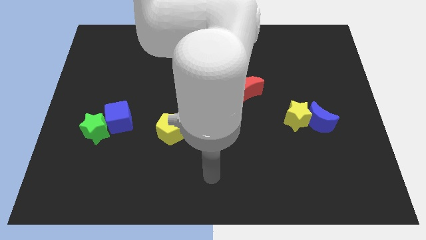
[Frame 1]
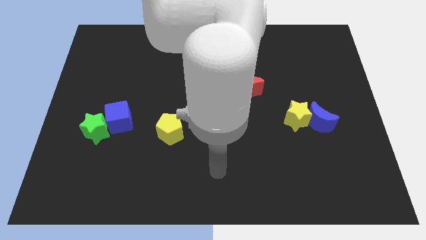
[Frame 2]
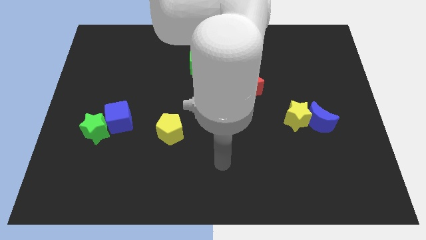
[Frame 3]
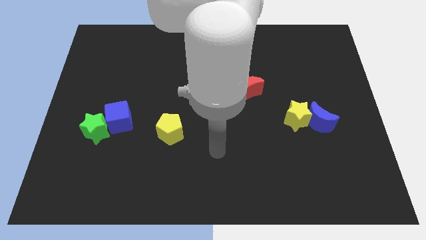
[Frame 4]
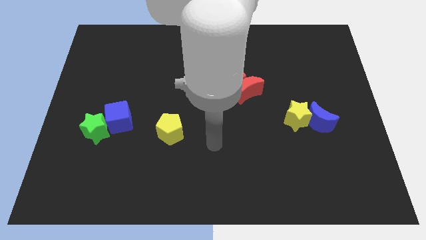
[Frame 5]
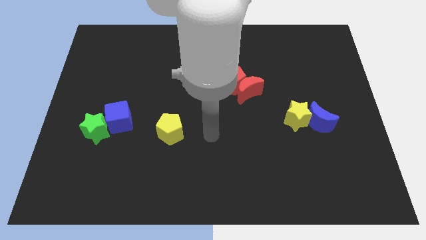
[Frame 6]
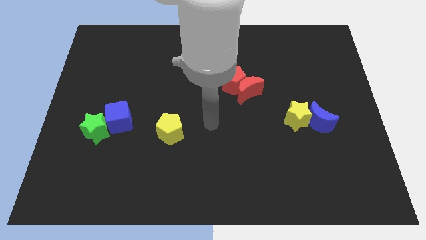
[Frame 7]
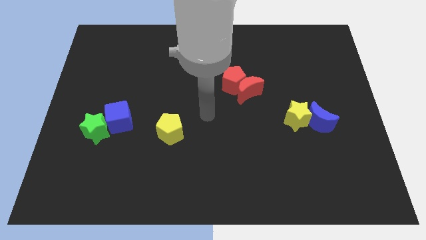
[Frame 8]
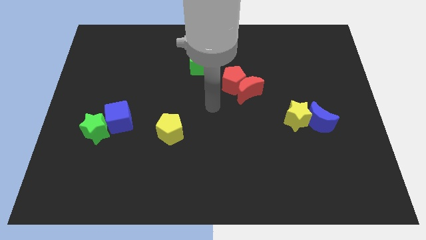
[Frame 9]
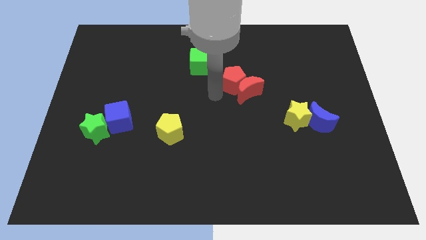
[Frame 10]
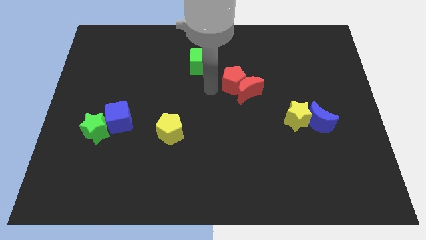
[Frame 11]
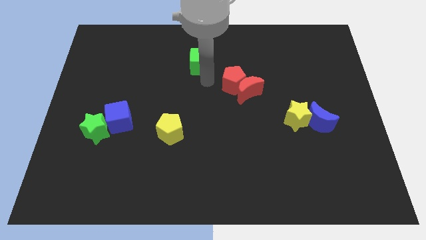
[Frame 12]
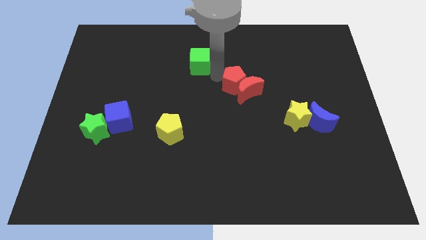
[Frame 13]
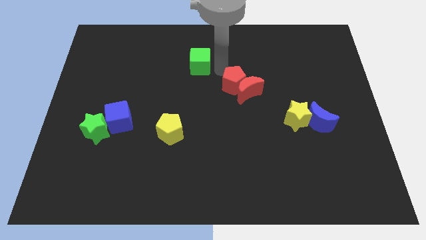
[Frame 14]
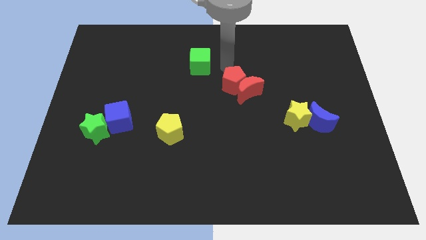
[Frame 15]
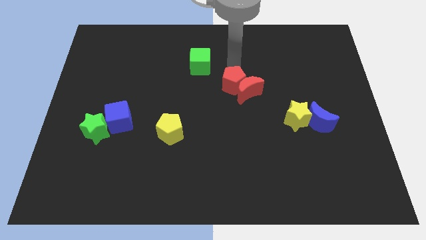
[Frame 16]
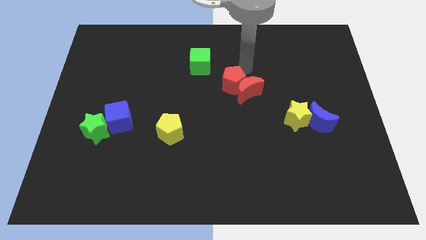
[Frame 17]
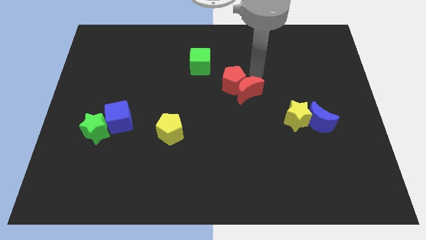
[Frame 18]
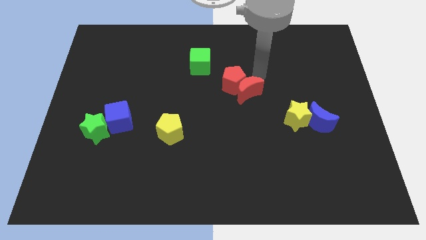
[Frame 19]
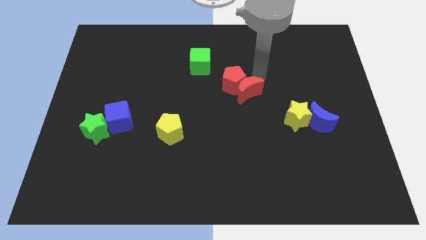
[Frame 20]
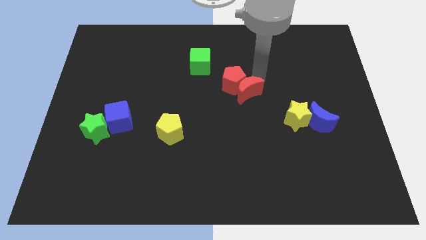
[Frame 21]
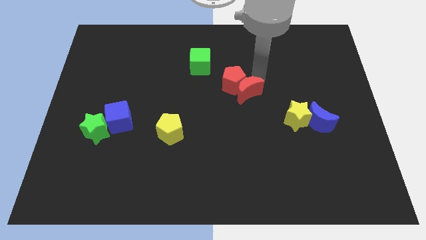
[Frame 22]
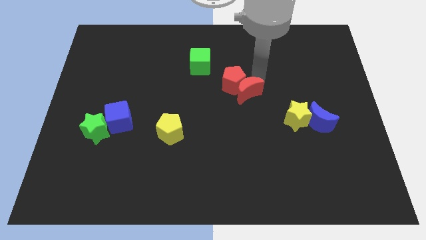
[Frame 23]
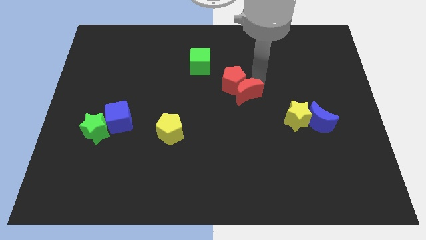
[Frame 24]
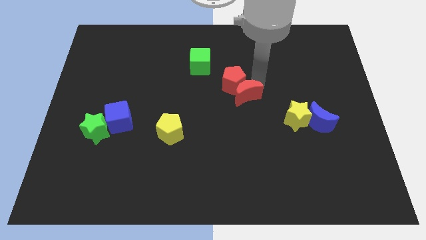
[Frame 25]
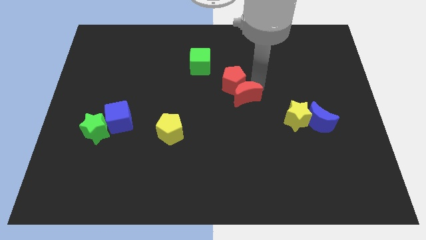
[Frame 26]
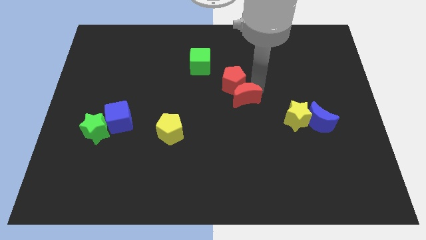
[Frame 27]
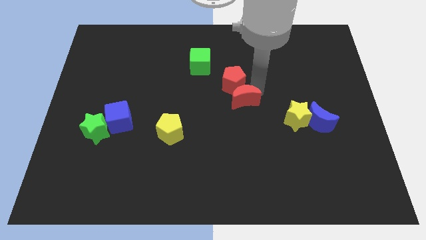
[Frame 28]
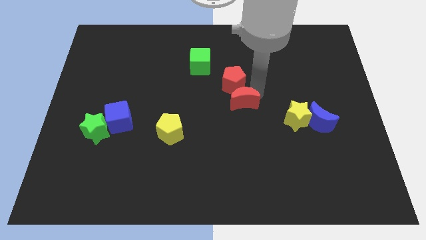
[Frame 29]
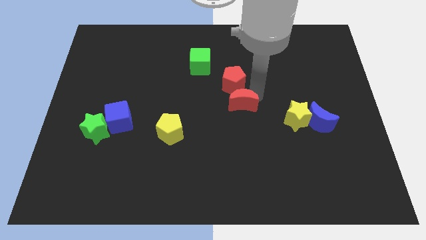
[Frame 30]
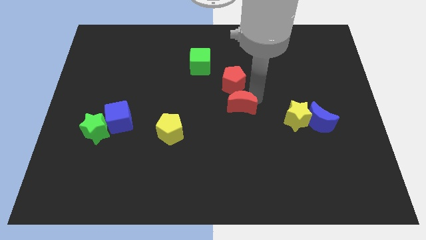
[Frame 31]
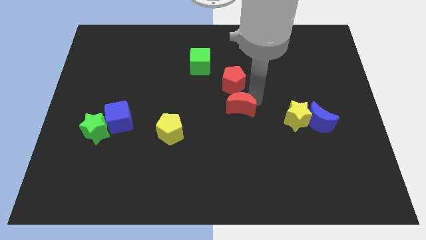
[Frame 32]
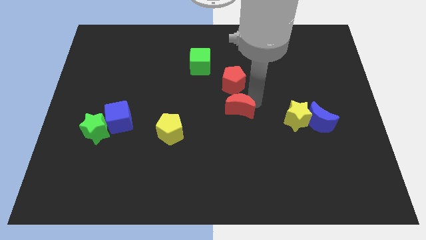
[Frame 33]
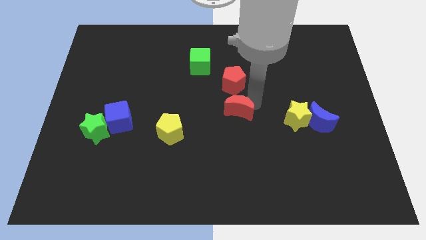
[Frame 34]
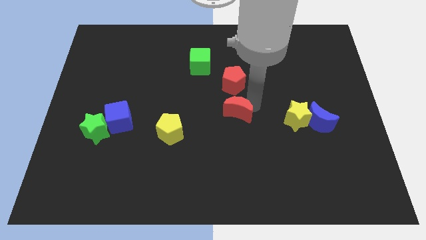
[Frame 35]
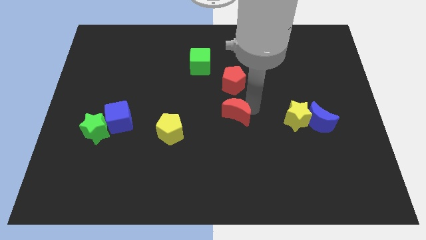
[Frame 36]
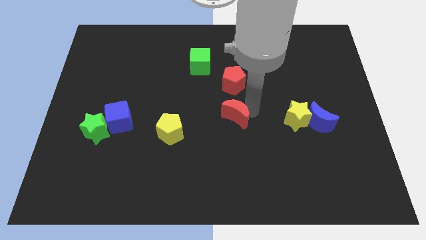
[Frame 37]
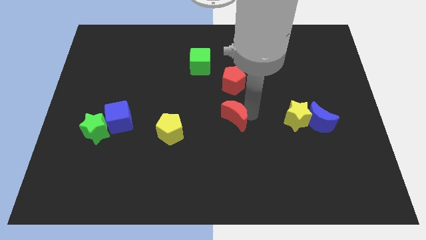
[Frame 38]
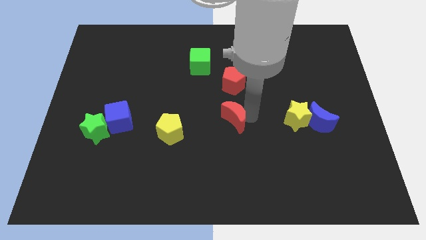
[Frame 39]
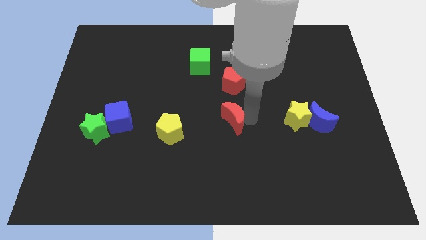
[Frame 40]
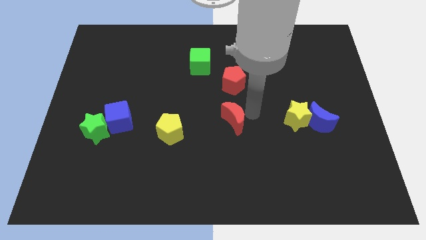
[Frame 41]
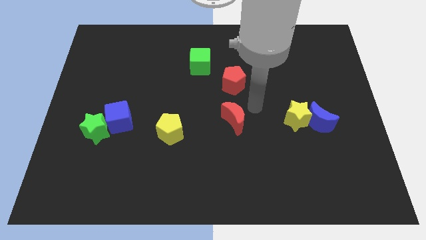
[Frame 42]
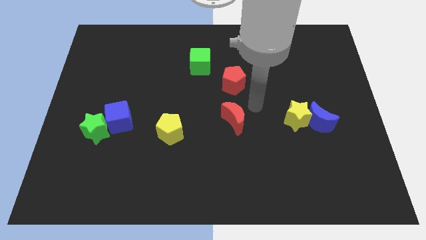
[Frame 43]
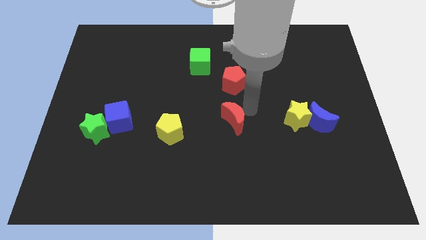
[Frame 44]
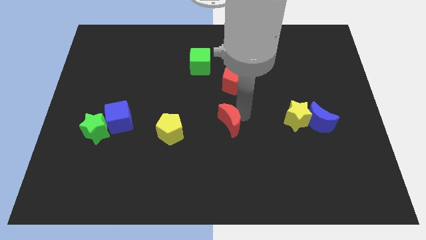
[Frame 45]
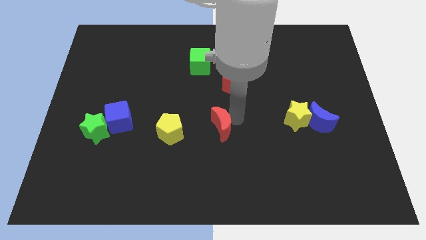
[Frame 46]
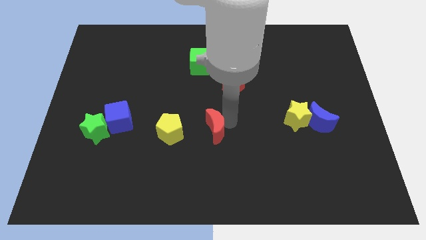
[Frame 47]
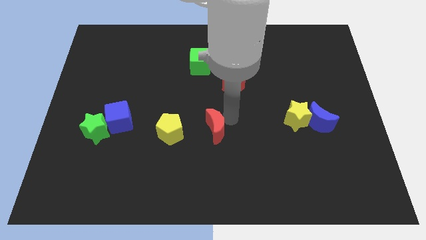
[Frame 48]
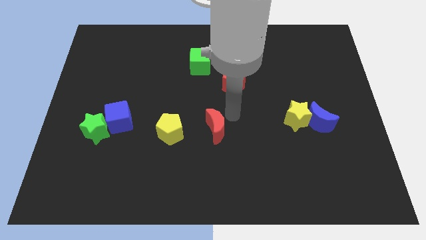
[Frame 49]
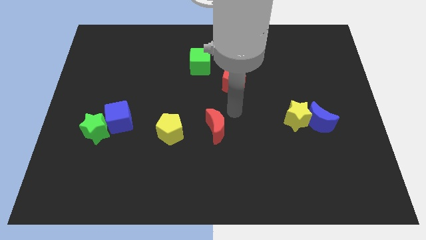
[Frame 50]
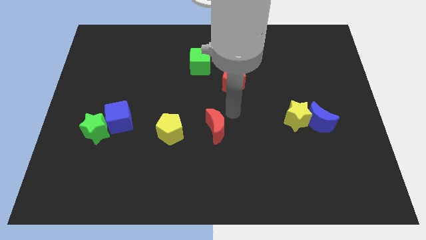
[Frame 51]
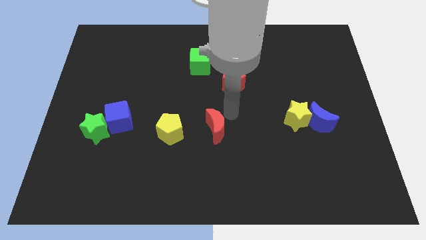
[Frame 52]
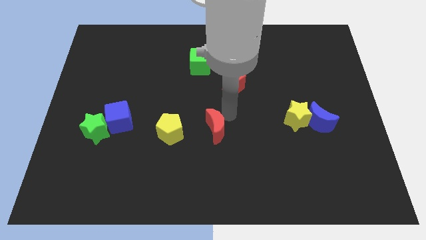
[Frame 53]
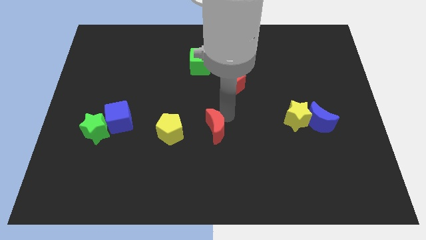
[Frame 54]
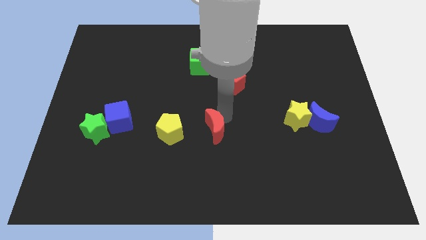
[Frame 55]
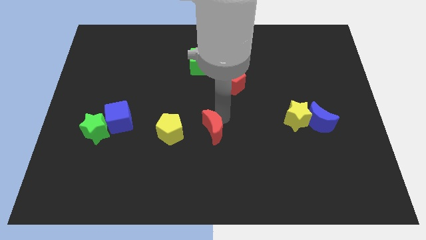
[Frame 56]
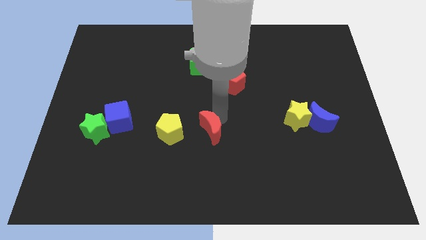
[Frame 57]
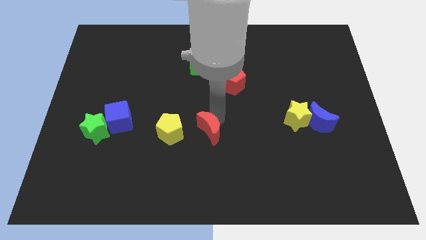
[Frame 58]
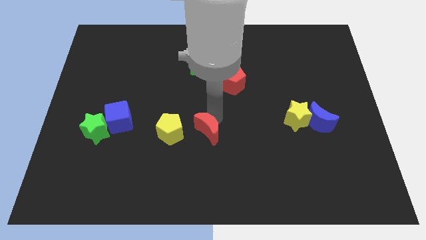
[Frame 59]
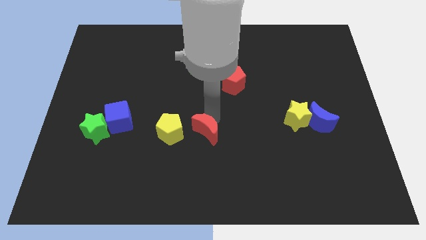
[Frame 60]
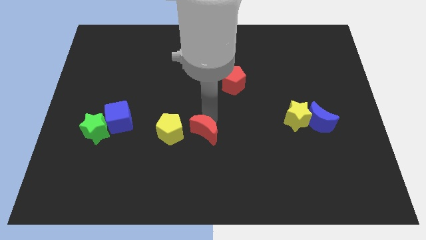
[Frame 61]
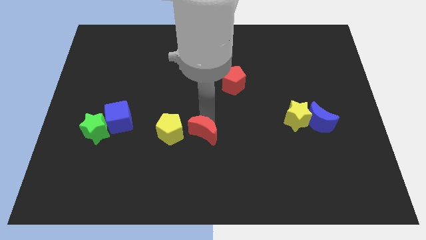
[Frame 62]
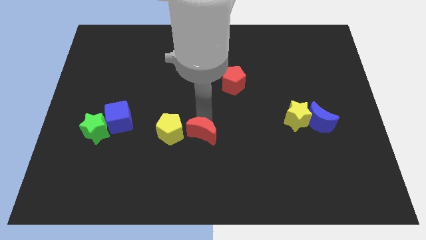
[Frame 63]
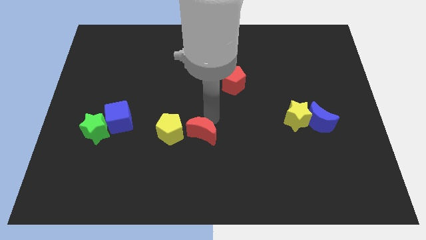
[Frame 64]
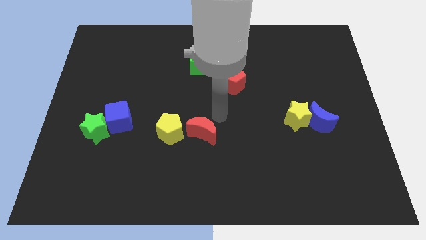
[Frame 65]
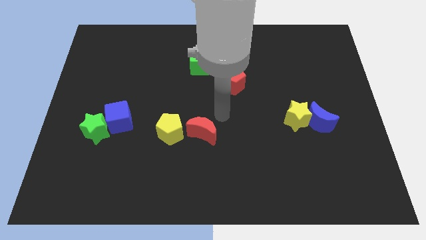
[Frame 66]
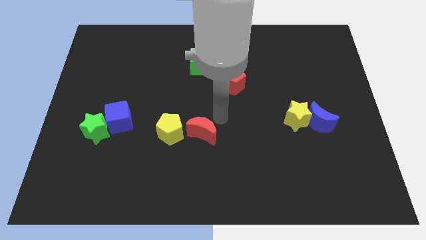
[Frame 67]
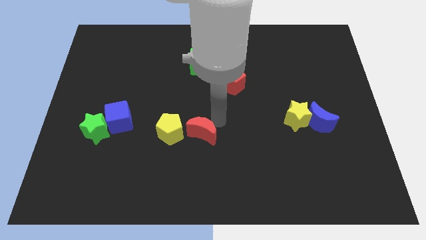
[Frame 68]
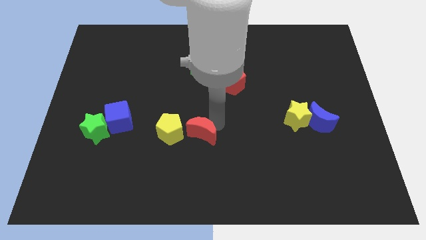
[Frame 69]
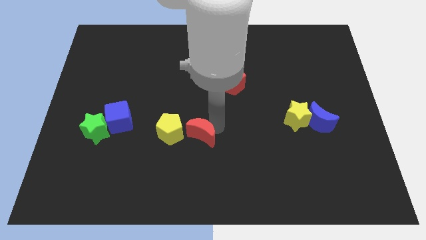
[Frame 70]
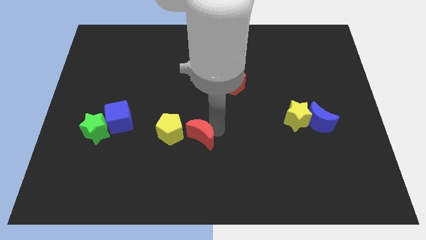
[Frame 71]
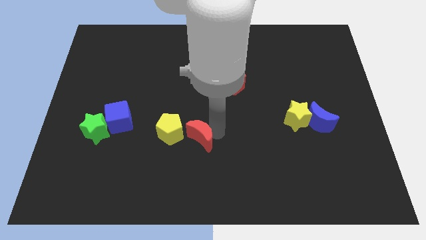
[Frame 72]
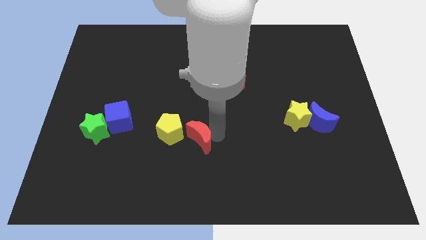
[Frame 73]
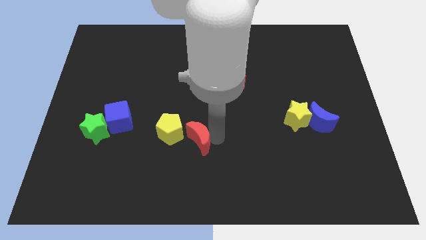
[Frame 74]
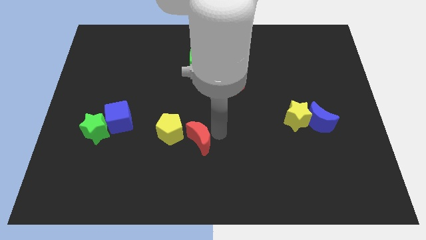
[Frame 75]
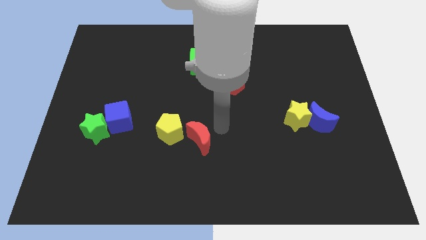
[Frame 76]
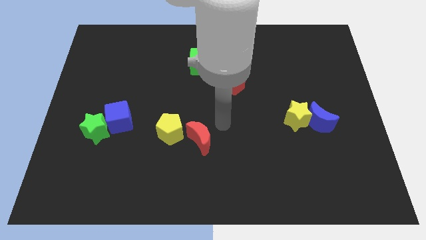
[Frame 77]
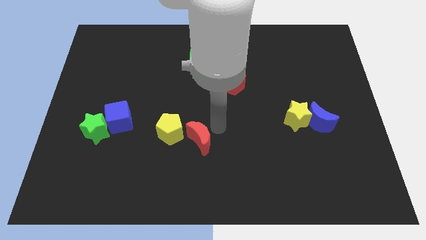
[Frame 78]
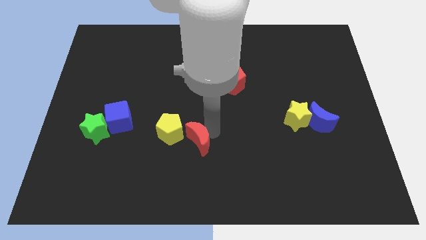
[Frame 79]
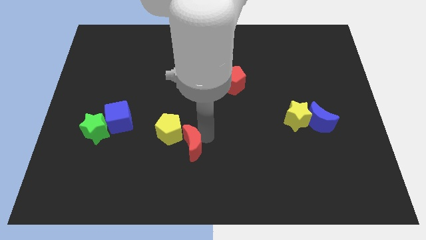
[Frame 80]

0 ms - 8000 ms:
push the red moon downwards and left diagonally

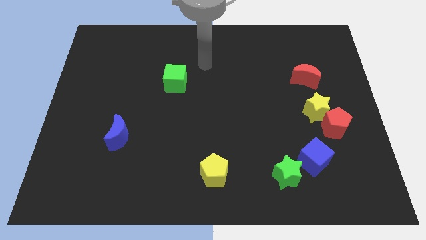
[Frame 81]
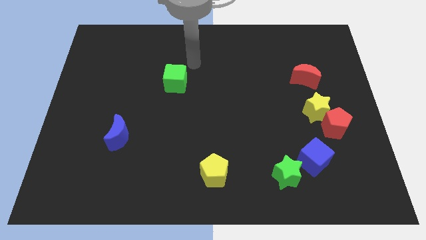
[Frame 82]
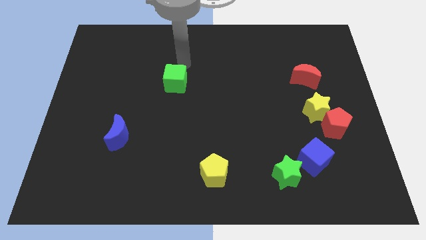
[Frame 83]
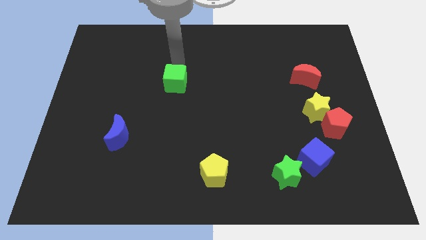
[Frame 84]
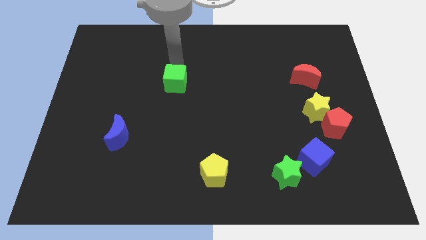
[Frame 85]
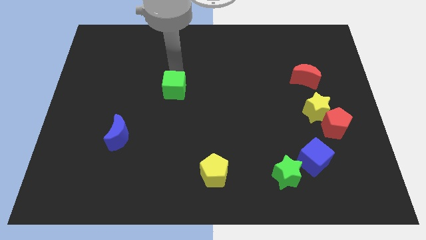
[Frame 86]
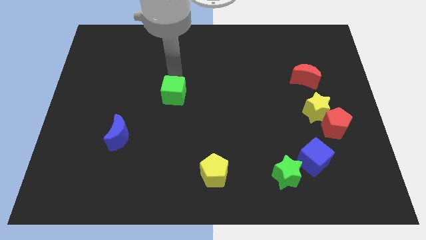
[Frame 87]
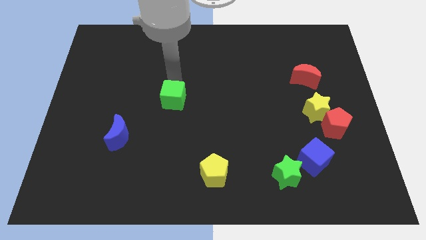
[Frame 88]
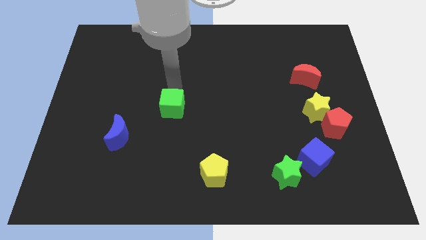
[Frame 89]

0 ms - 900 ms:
slide the green cube slightly downwards
